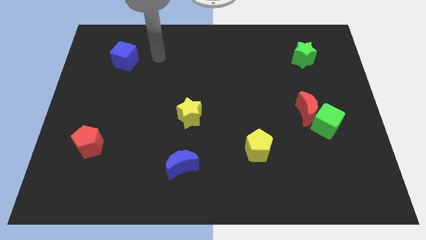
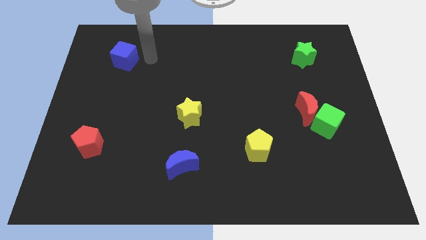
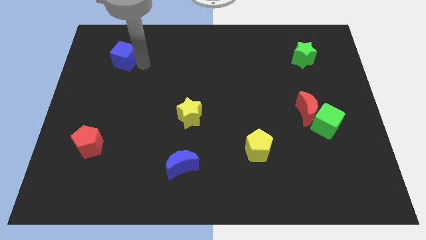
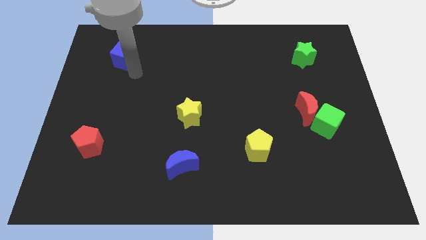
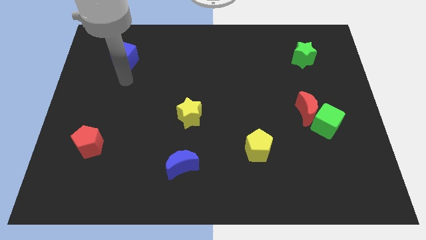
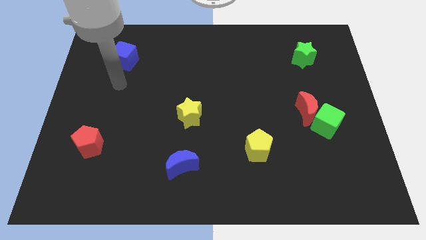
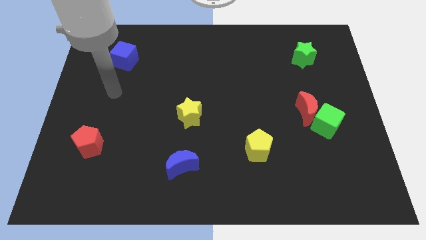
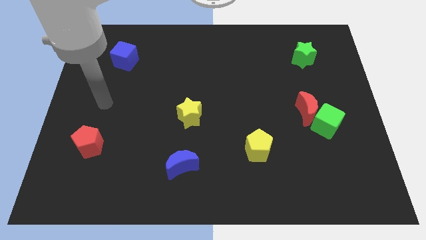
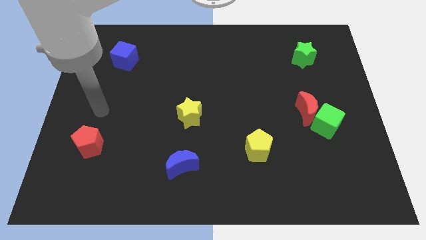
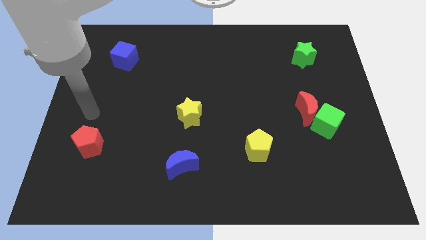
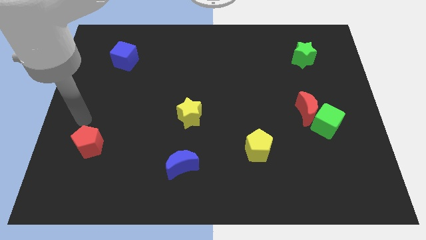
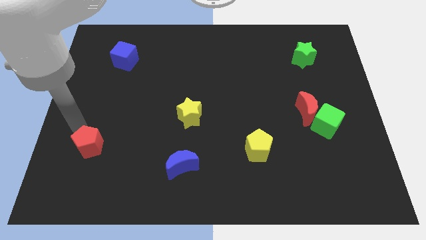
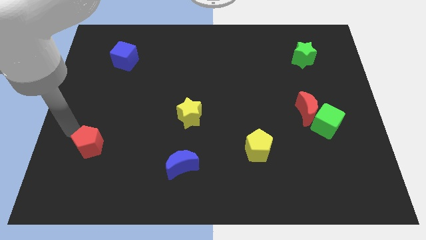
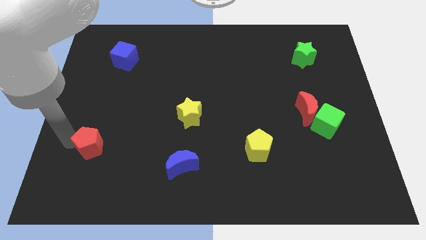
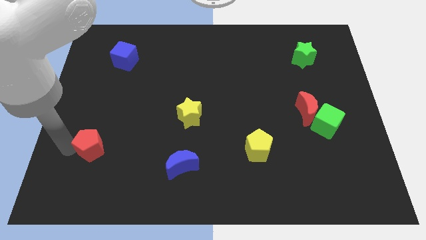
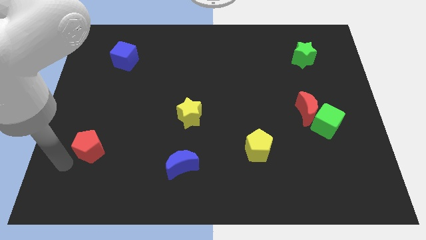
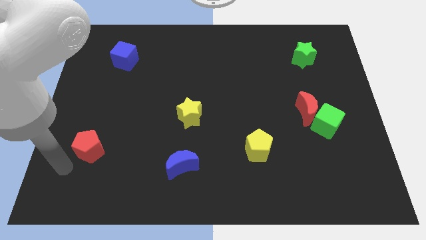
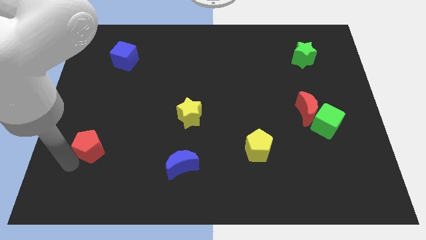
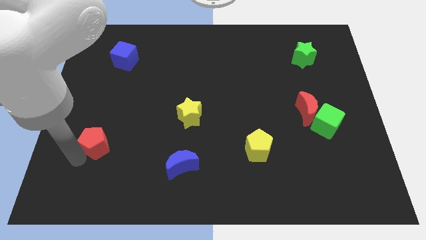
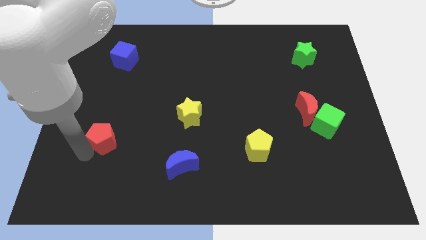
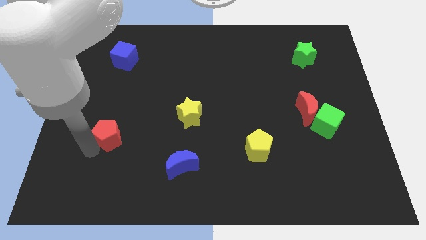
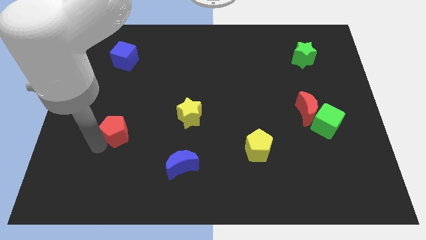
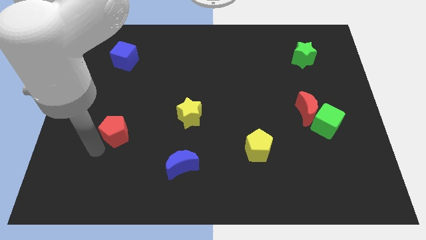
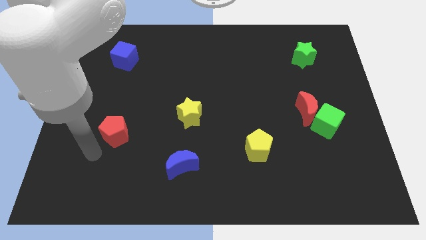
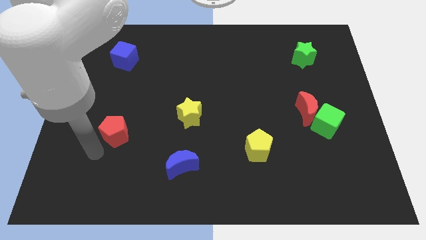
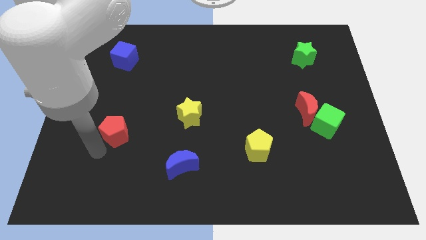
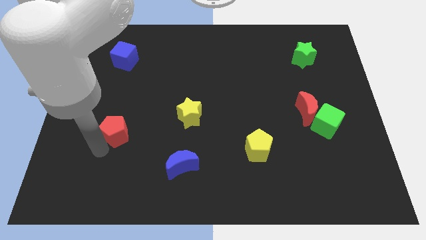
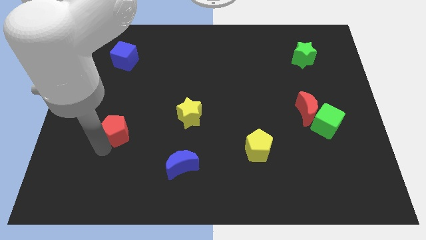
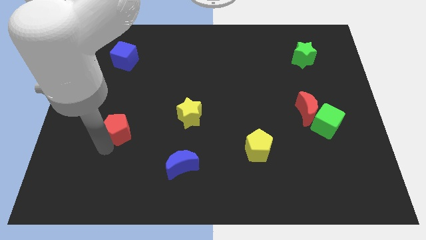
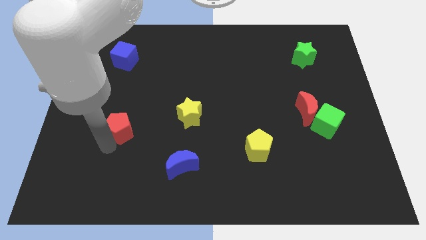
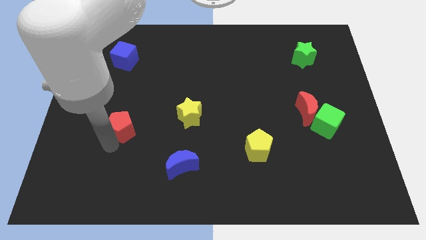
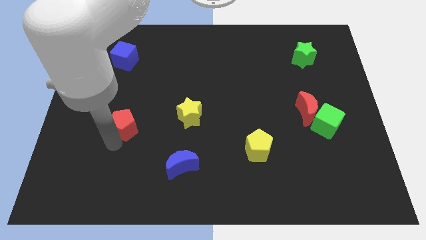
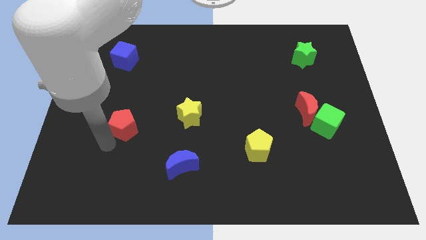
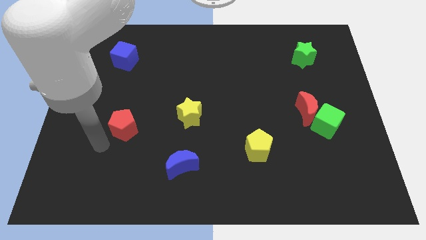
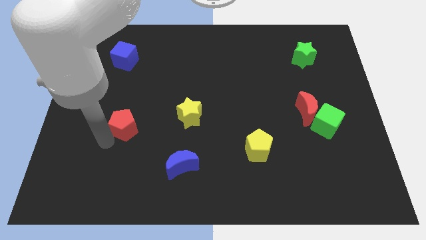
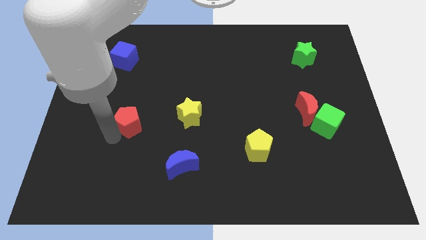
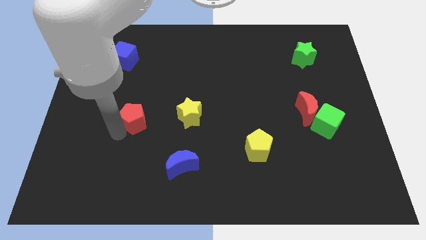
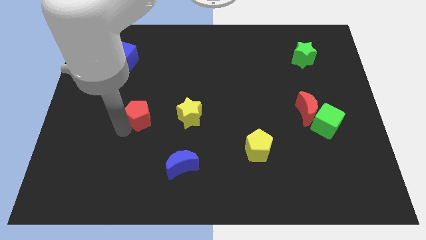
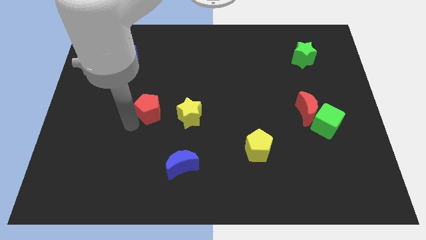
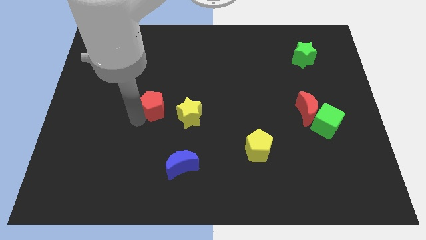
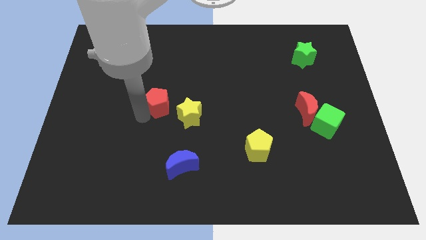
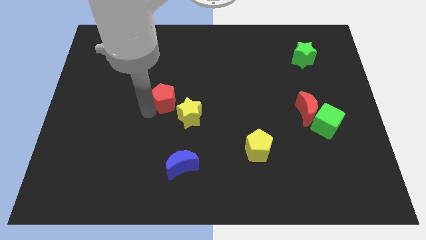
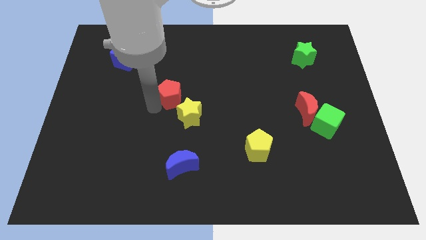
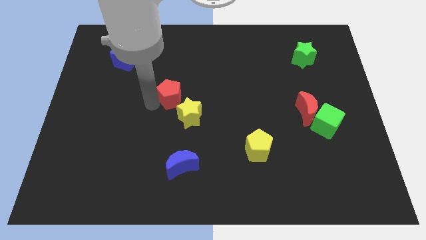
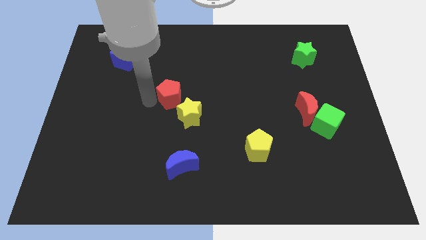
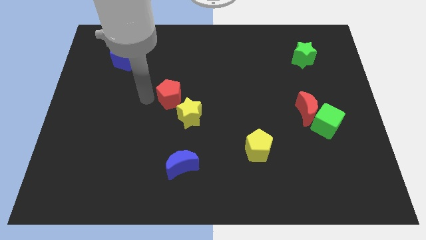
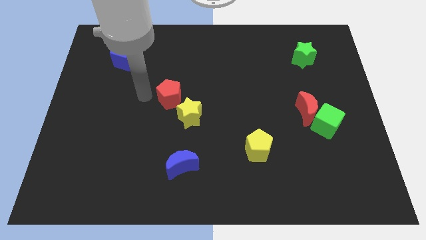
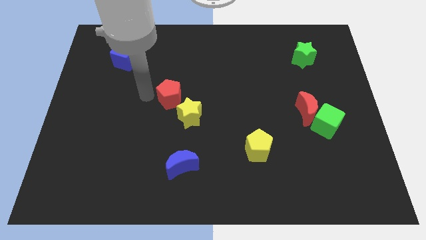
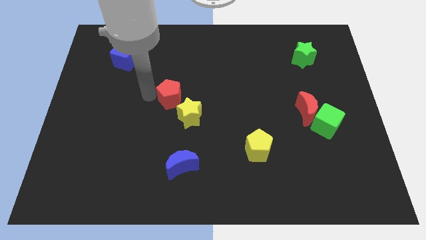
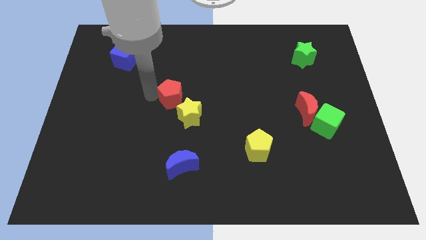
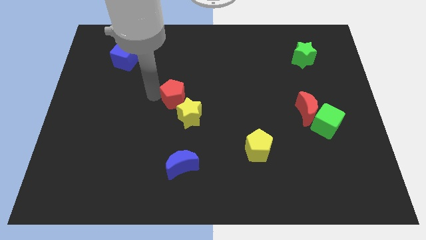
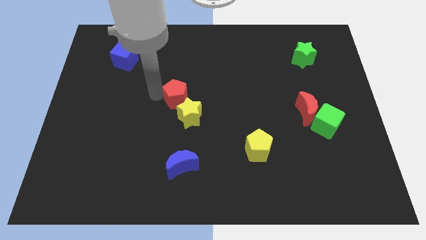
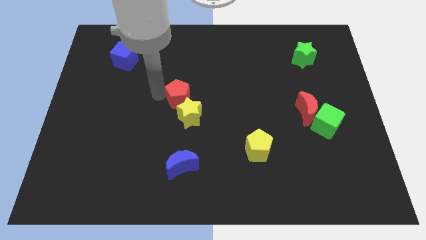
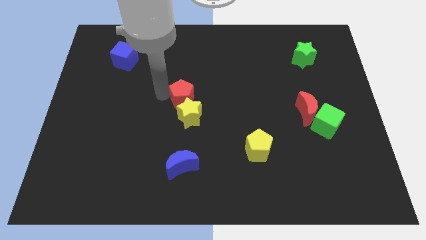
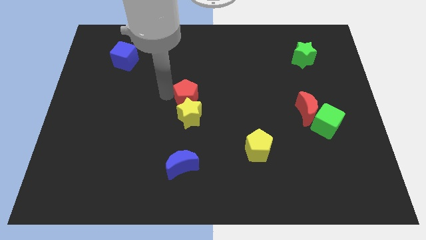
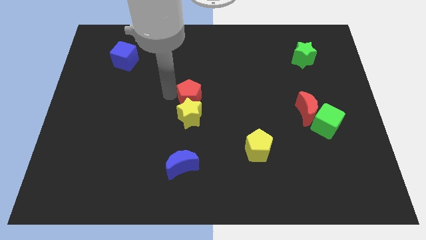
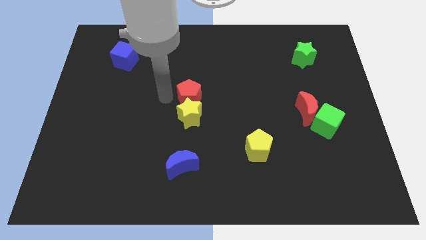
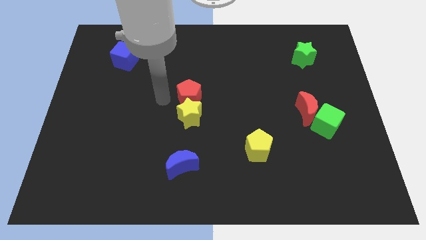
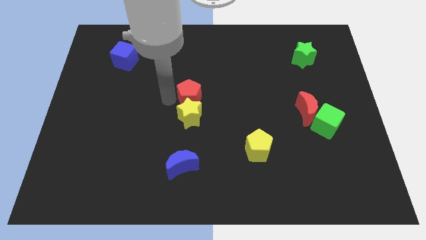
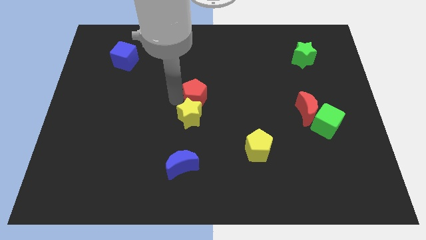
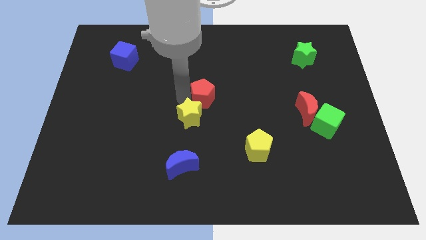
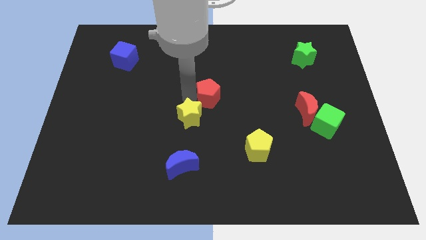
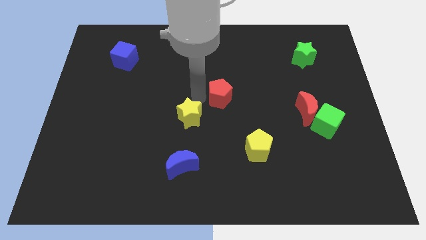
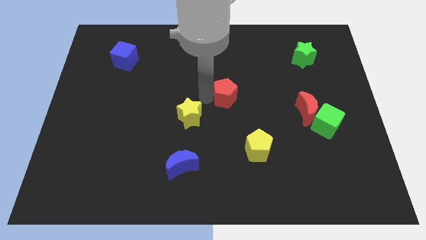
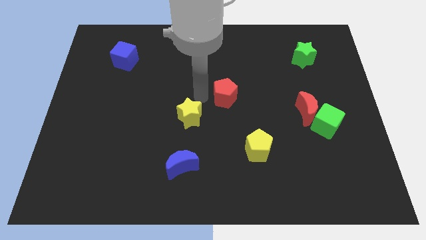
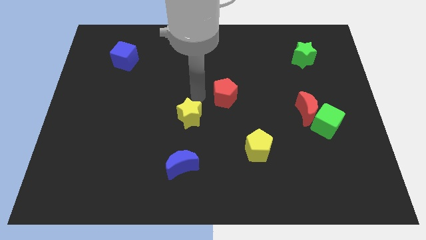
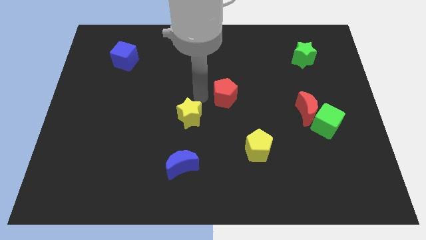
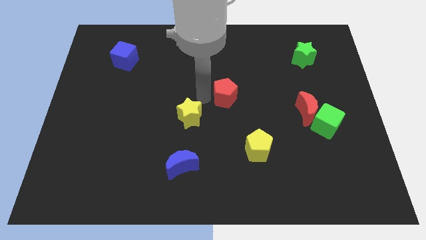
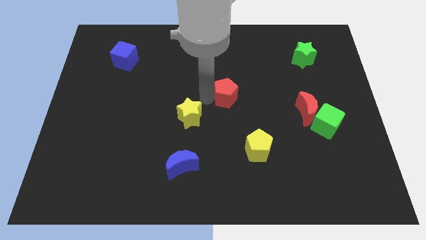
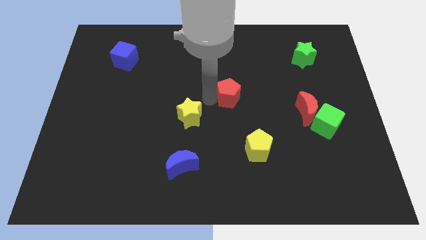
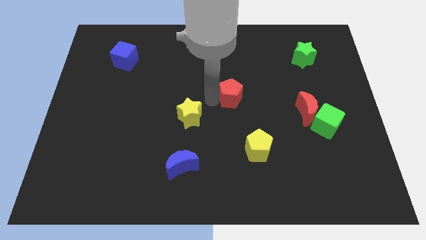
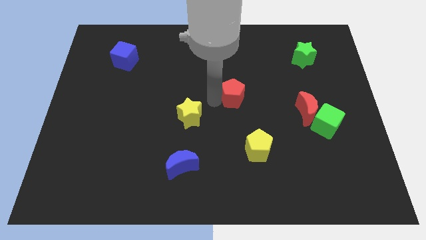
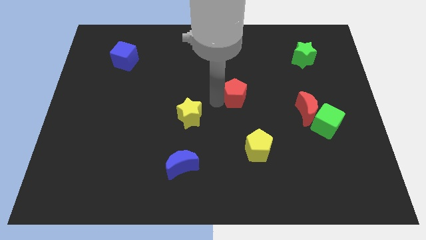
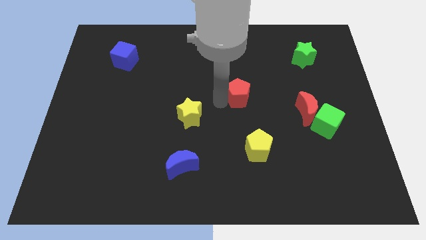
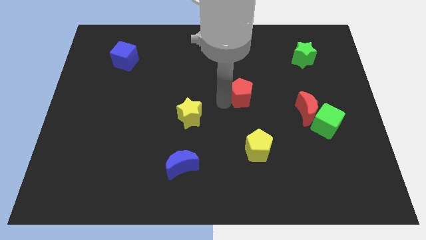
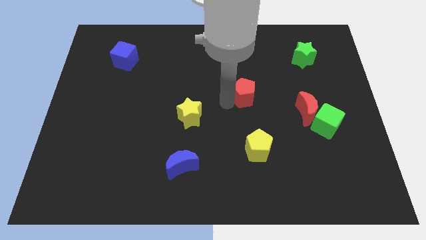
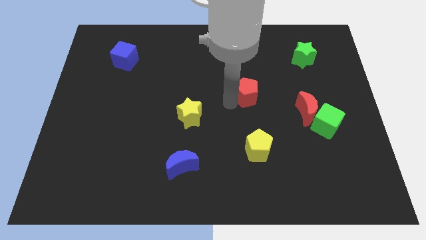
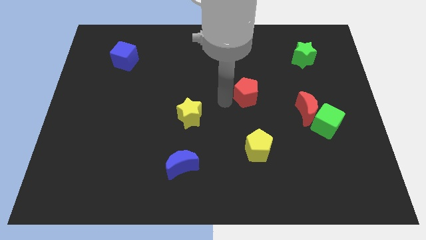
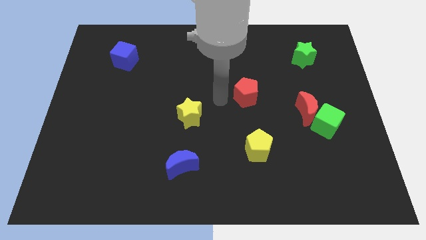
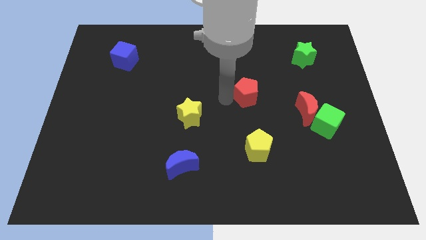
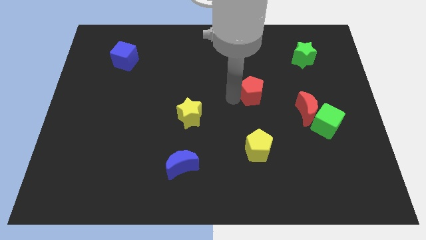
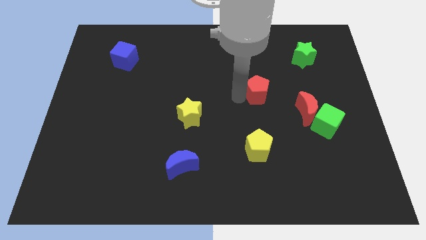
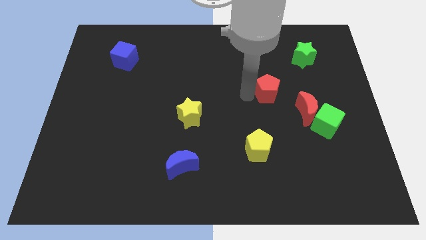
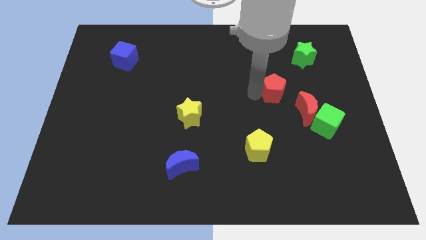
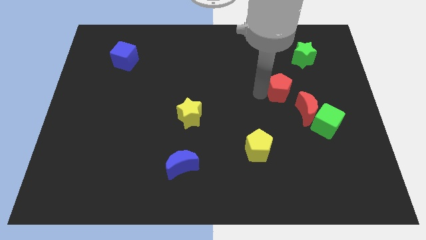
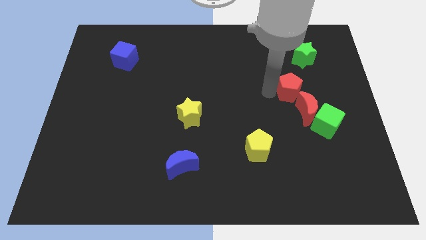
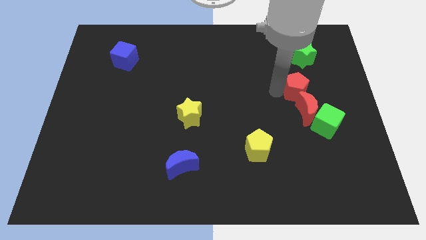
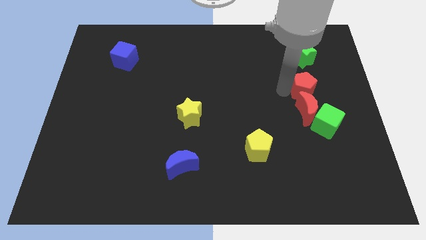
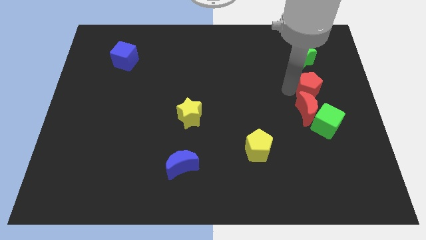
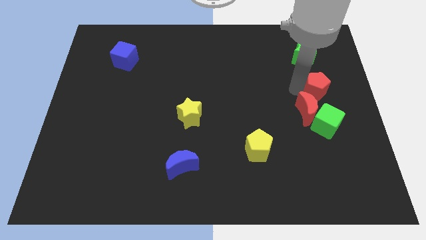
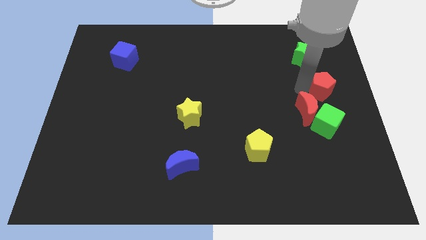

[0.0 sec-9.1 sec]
slide the red pentagon to the center right
